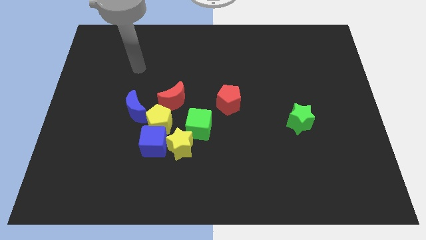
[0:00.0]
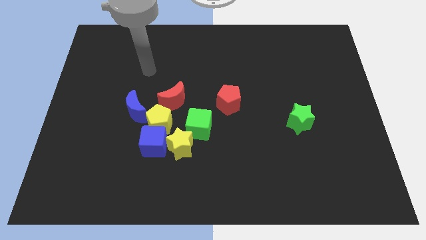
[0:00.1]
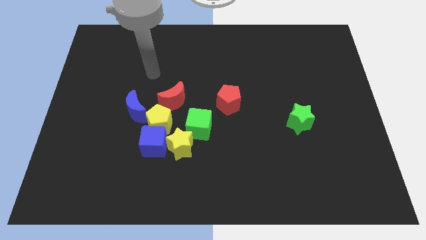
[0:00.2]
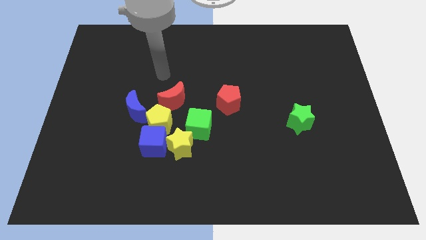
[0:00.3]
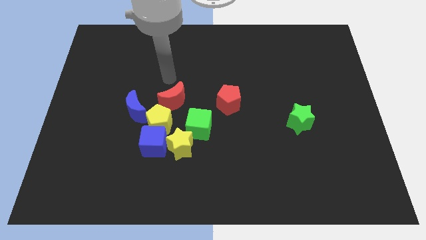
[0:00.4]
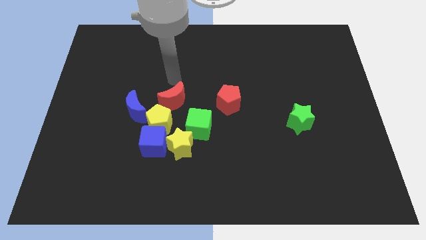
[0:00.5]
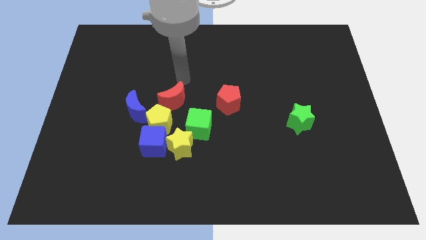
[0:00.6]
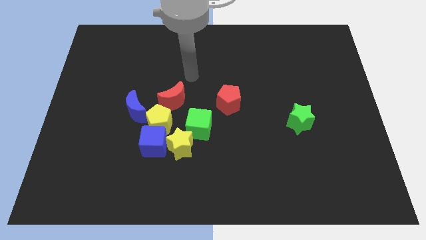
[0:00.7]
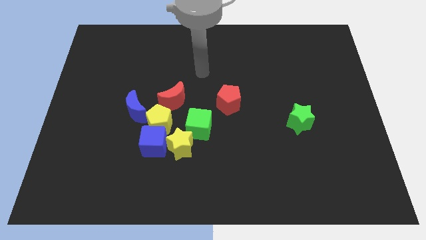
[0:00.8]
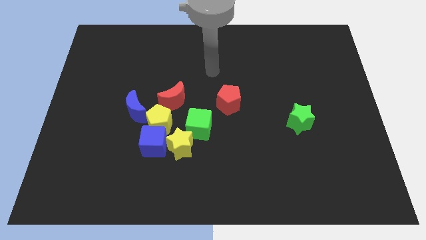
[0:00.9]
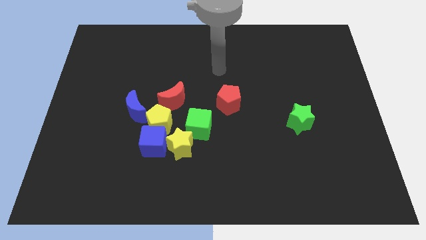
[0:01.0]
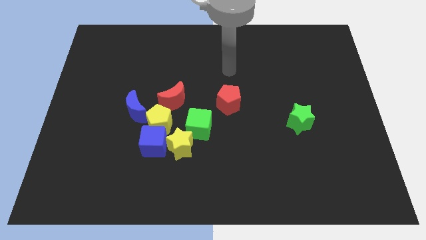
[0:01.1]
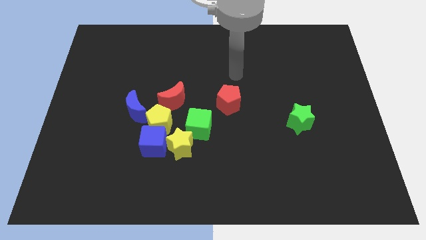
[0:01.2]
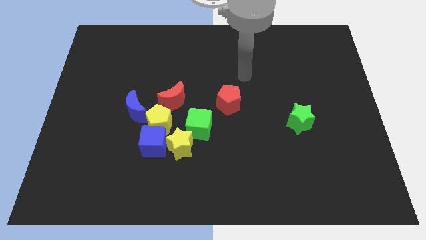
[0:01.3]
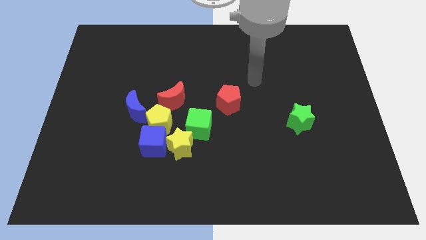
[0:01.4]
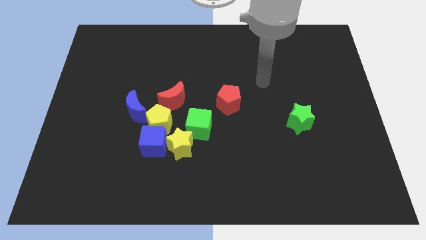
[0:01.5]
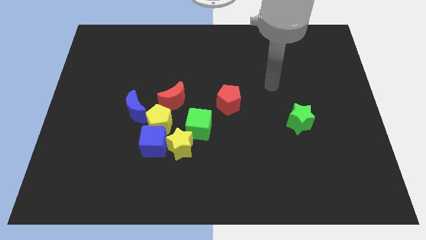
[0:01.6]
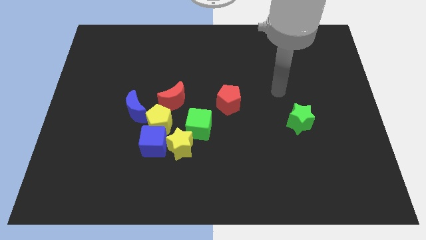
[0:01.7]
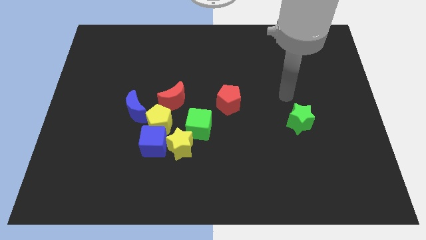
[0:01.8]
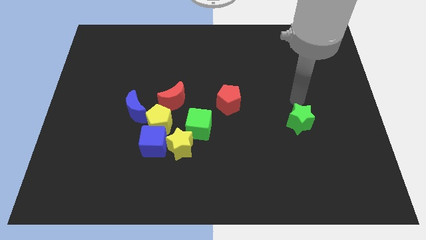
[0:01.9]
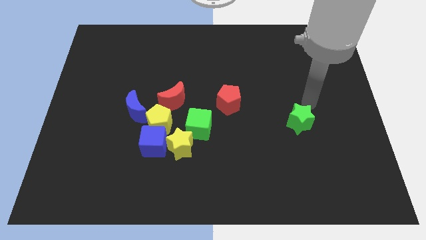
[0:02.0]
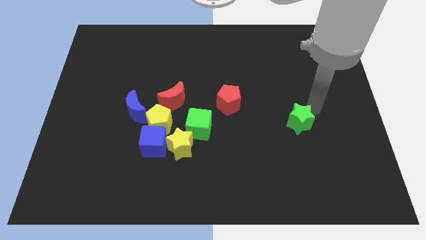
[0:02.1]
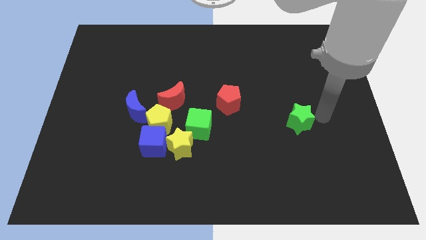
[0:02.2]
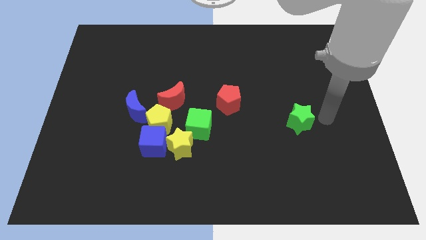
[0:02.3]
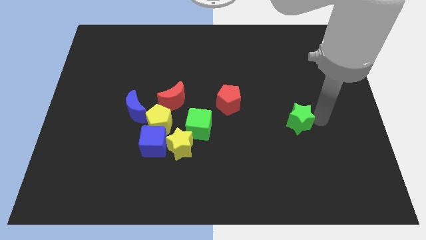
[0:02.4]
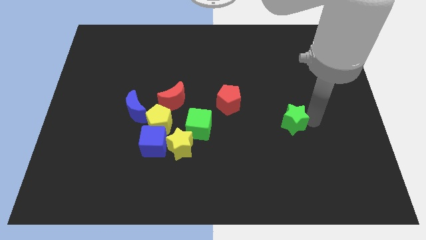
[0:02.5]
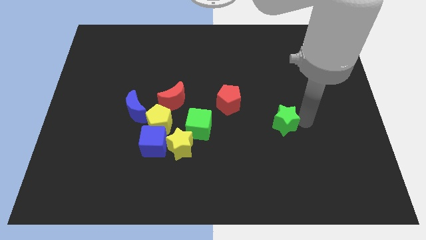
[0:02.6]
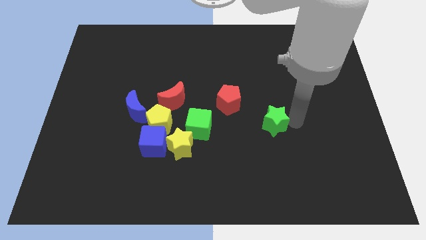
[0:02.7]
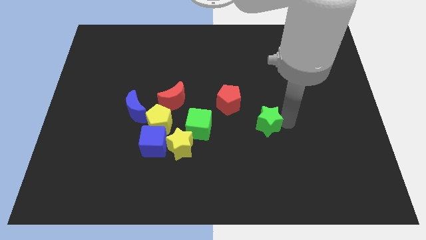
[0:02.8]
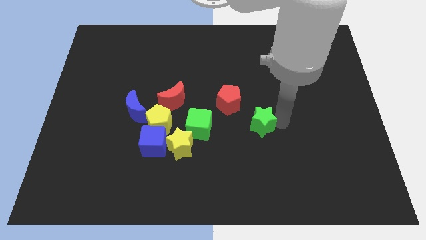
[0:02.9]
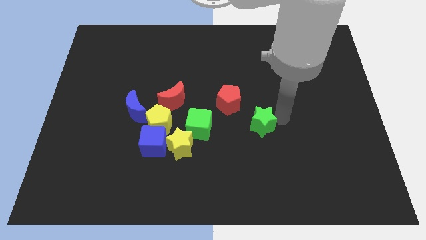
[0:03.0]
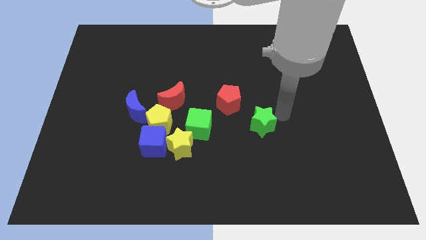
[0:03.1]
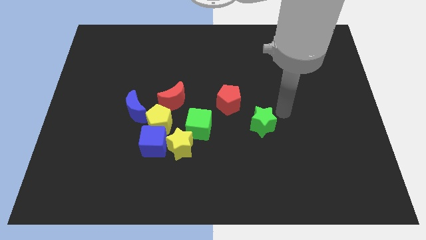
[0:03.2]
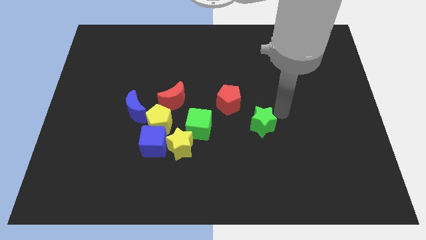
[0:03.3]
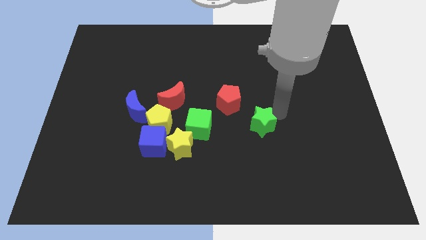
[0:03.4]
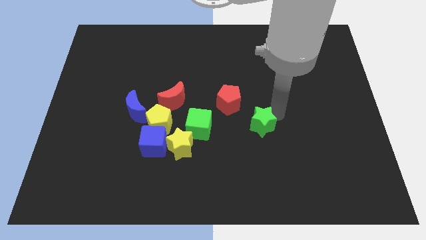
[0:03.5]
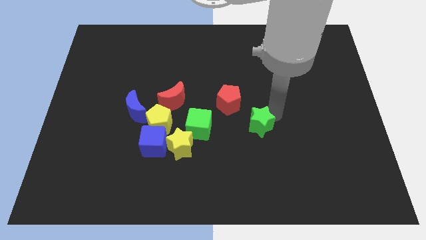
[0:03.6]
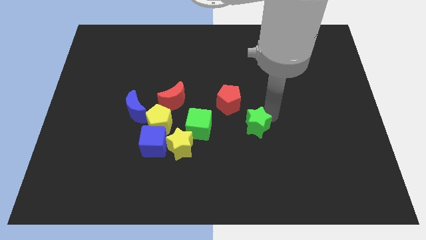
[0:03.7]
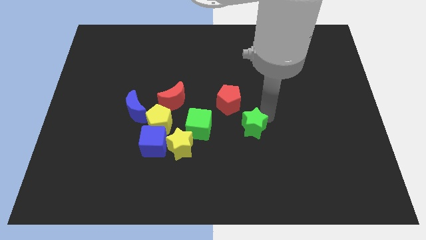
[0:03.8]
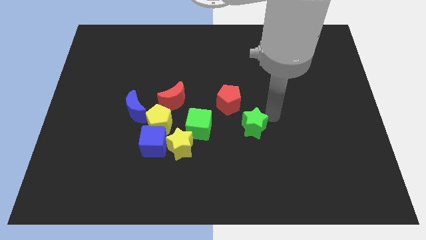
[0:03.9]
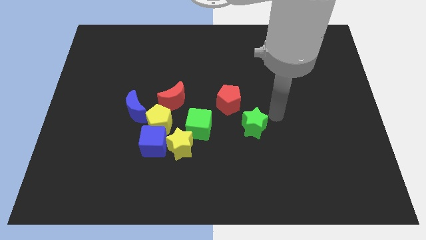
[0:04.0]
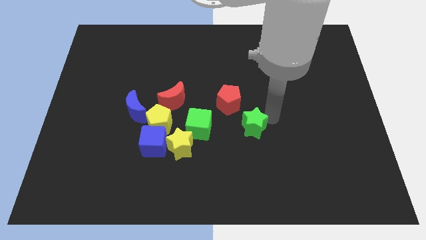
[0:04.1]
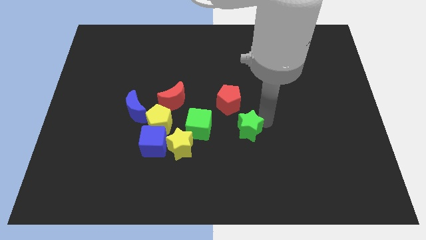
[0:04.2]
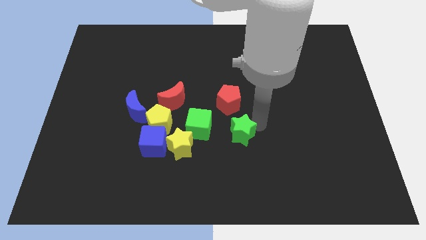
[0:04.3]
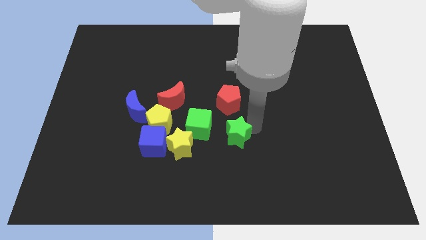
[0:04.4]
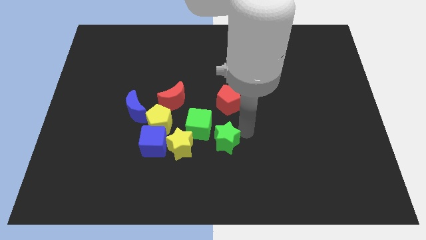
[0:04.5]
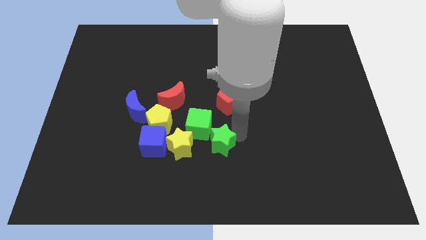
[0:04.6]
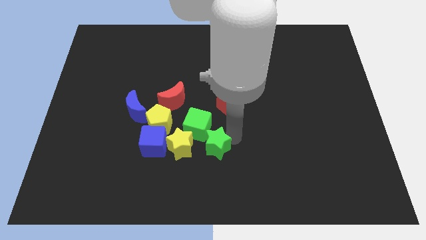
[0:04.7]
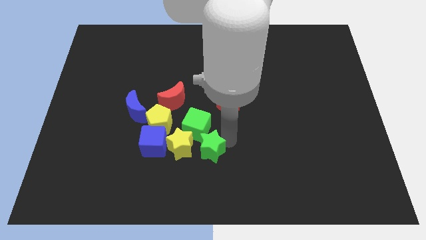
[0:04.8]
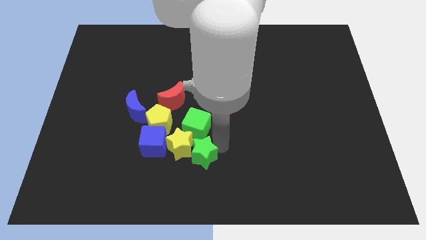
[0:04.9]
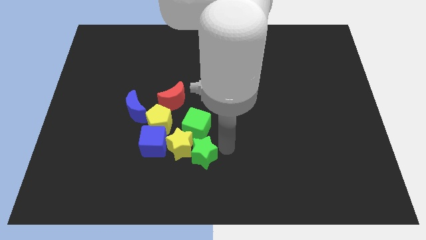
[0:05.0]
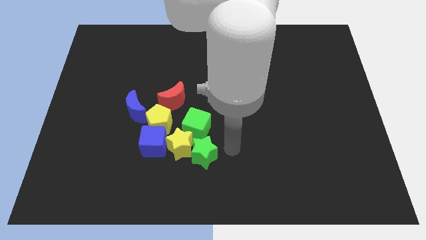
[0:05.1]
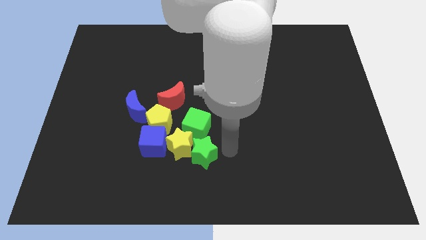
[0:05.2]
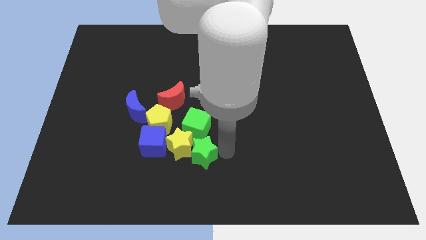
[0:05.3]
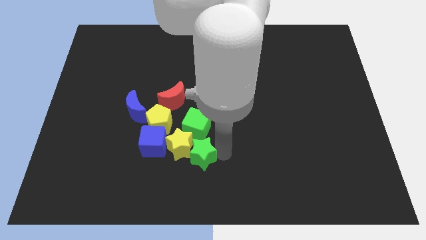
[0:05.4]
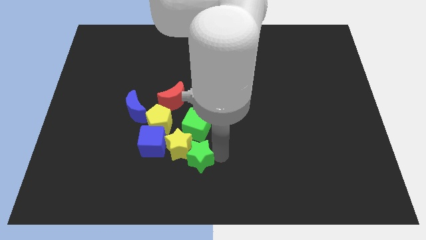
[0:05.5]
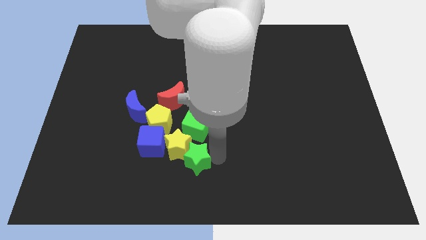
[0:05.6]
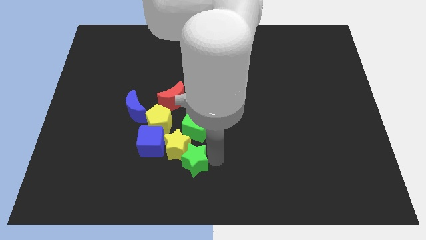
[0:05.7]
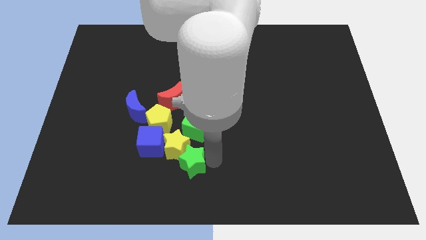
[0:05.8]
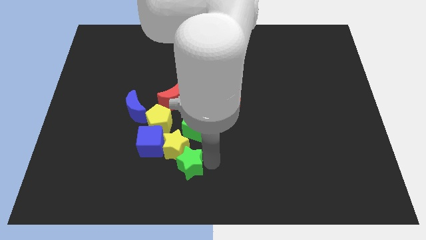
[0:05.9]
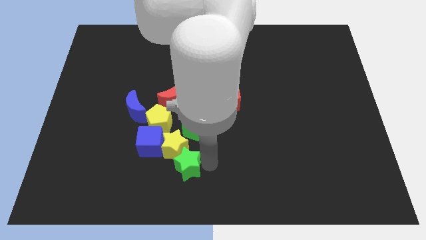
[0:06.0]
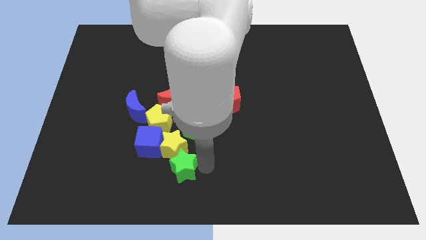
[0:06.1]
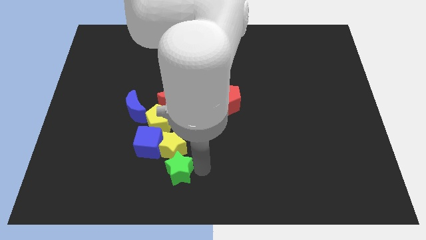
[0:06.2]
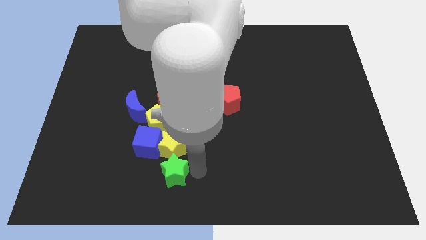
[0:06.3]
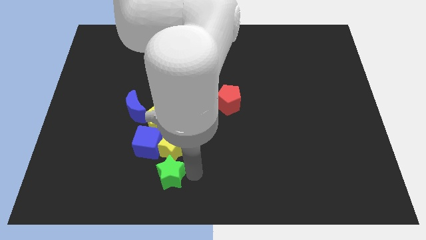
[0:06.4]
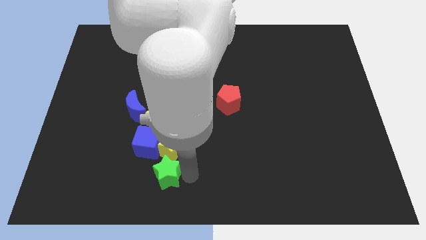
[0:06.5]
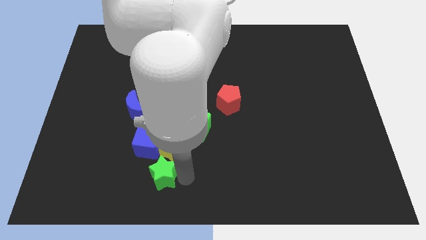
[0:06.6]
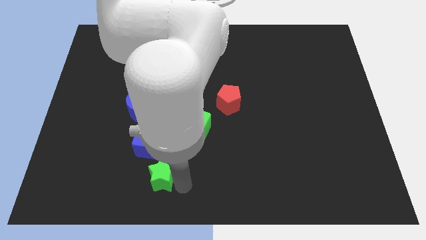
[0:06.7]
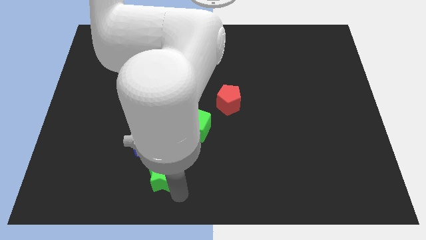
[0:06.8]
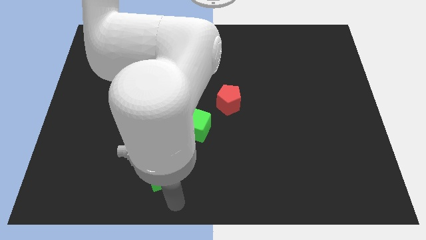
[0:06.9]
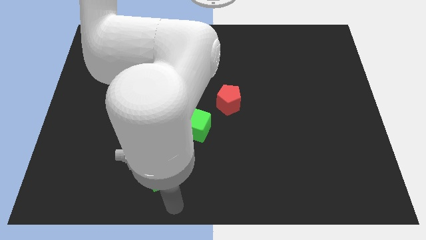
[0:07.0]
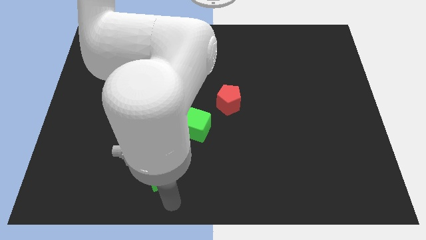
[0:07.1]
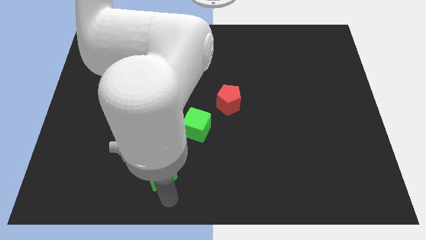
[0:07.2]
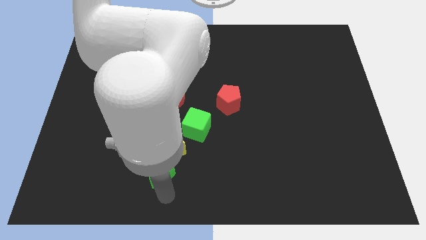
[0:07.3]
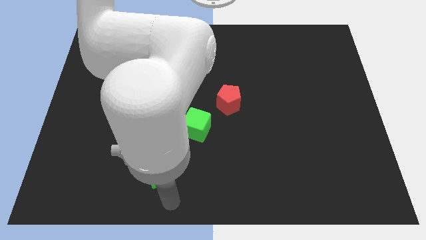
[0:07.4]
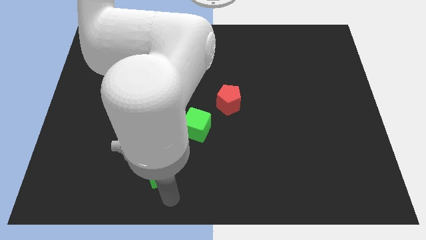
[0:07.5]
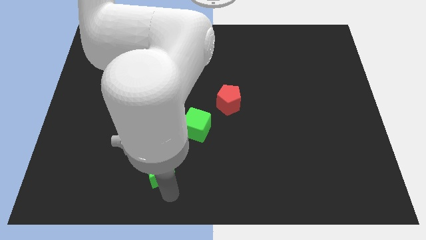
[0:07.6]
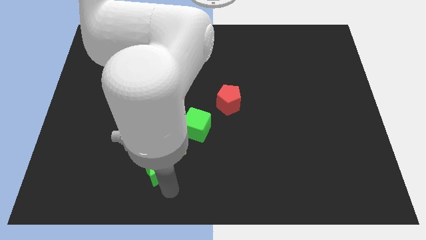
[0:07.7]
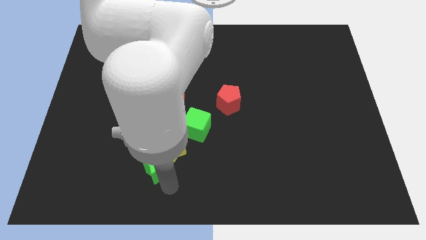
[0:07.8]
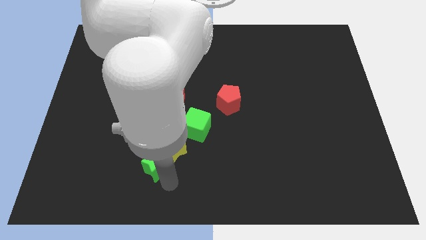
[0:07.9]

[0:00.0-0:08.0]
move the green star to the blue cube
